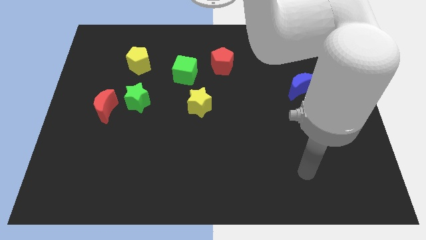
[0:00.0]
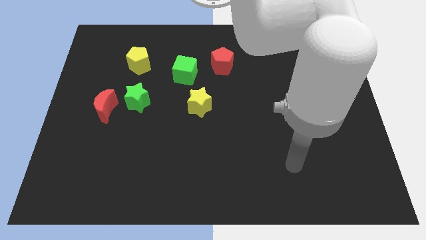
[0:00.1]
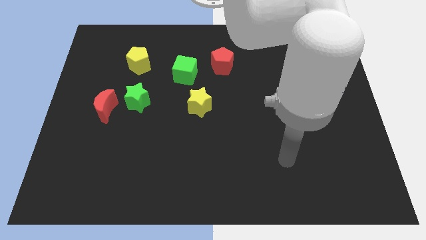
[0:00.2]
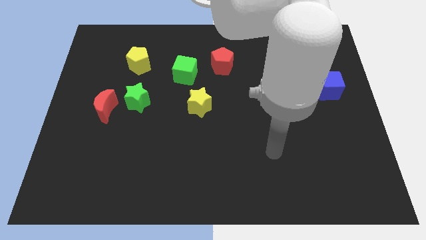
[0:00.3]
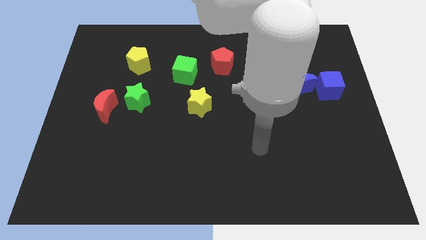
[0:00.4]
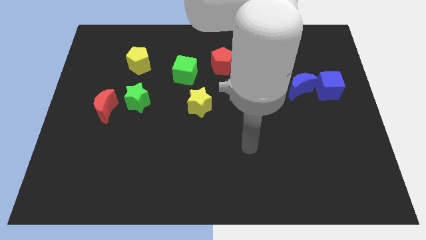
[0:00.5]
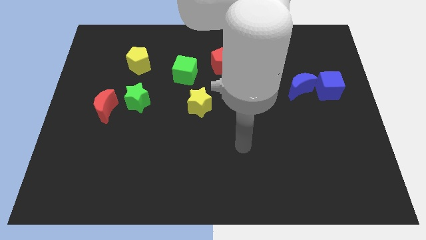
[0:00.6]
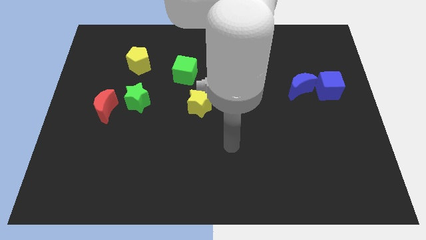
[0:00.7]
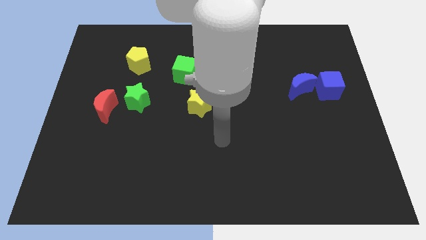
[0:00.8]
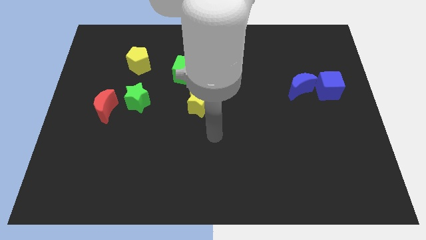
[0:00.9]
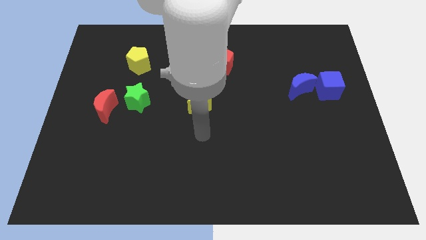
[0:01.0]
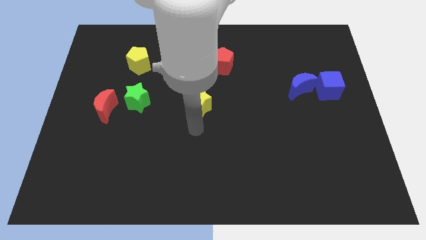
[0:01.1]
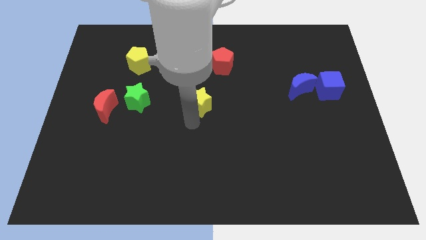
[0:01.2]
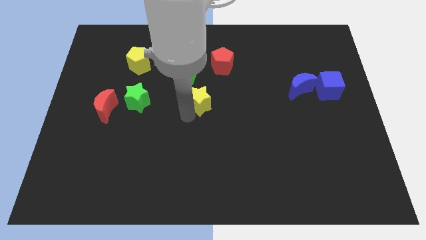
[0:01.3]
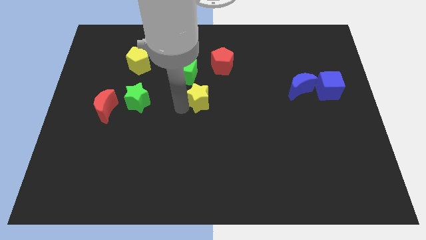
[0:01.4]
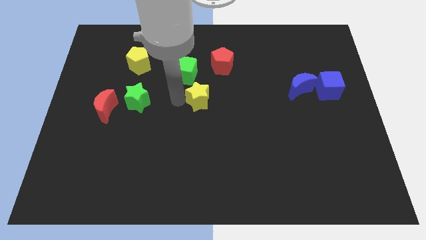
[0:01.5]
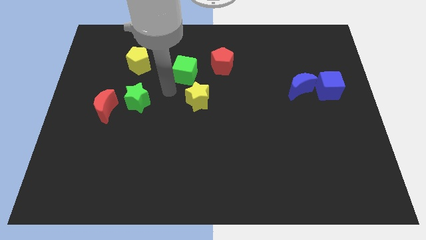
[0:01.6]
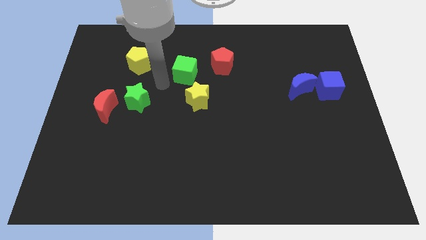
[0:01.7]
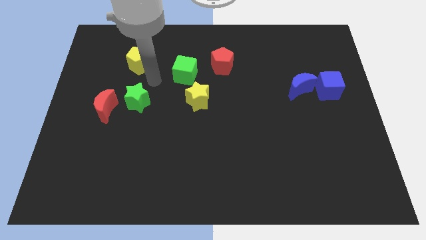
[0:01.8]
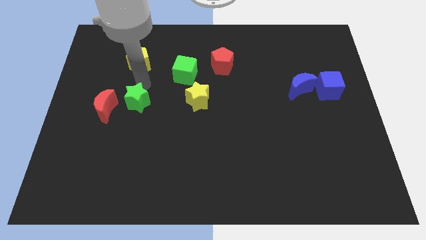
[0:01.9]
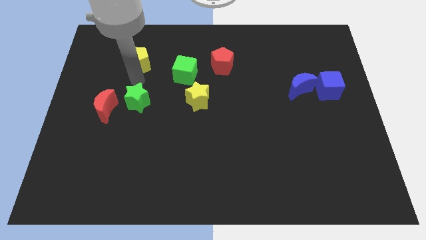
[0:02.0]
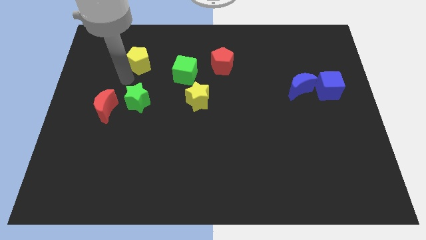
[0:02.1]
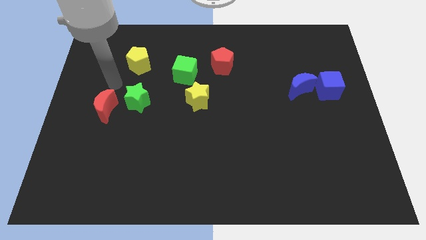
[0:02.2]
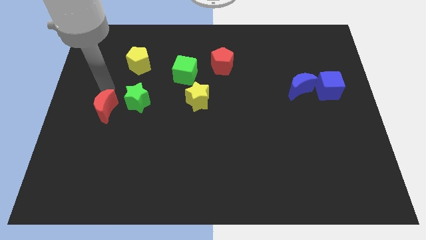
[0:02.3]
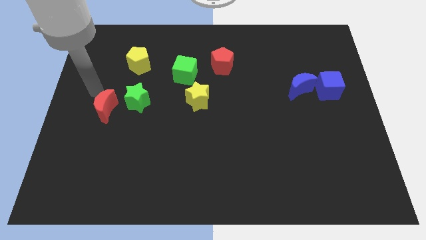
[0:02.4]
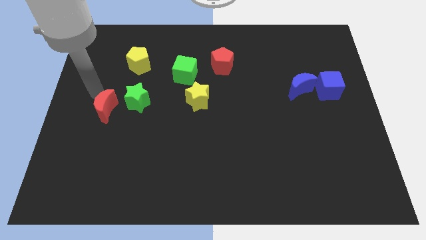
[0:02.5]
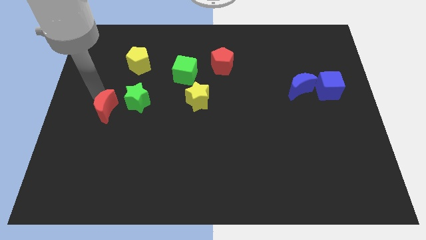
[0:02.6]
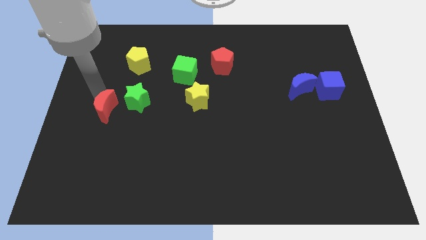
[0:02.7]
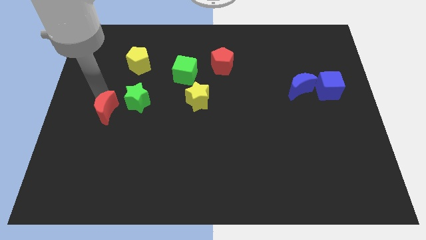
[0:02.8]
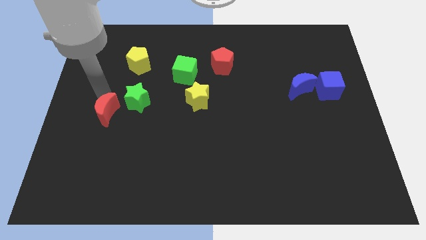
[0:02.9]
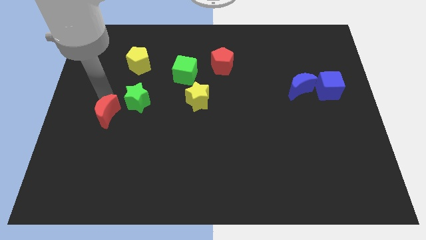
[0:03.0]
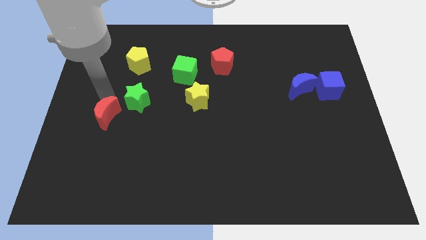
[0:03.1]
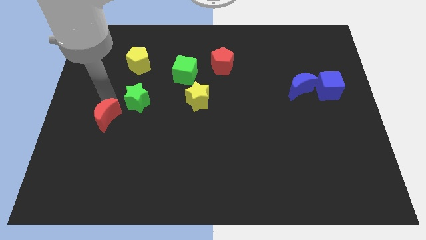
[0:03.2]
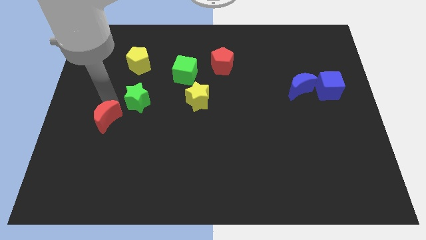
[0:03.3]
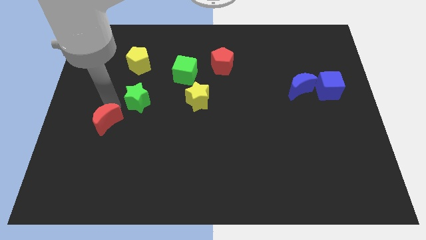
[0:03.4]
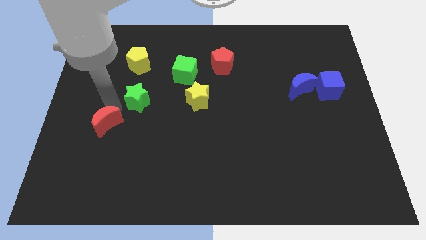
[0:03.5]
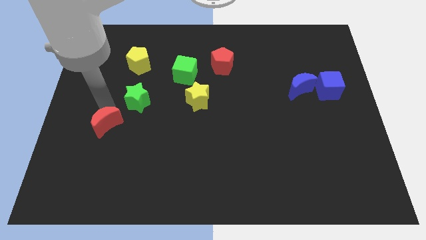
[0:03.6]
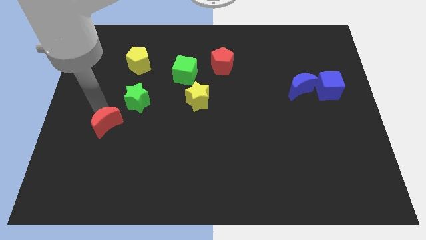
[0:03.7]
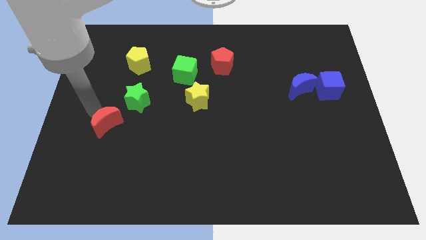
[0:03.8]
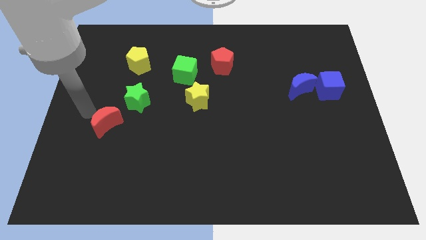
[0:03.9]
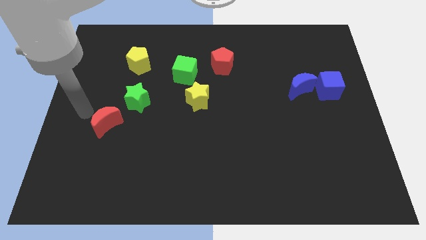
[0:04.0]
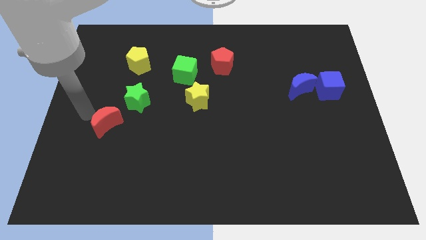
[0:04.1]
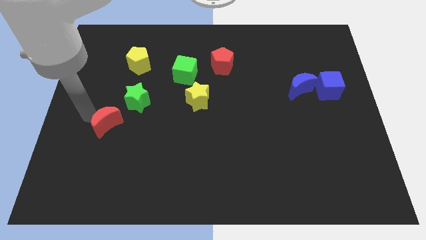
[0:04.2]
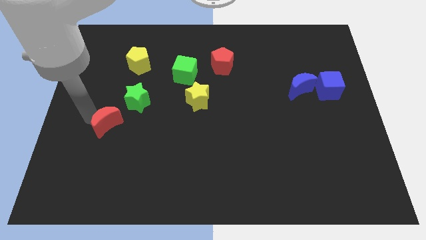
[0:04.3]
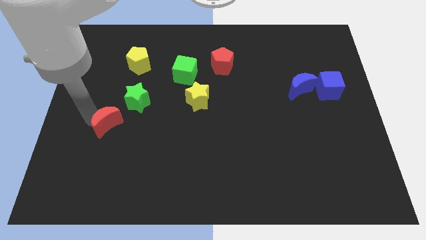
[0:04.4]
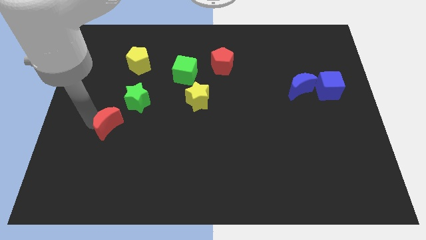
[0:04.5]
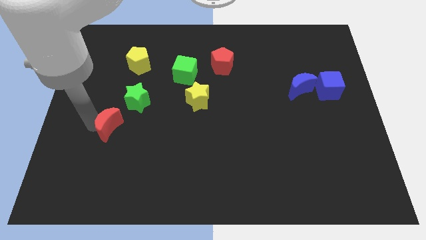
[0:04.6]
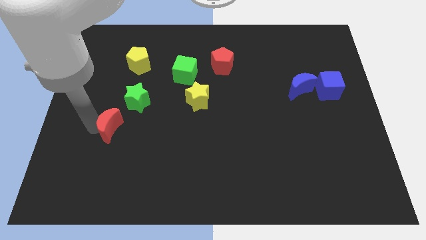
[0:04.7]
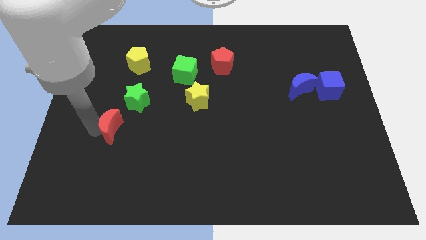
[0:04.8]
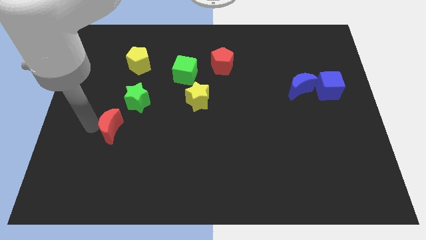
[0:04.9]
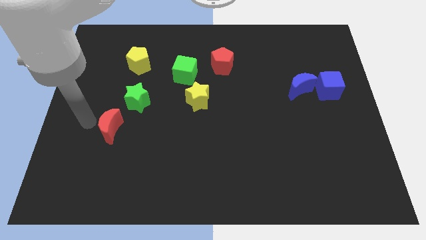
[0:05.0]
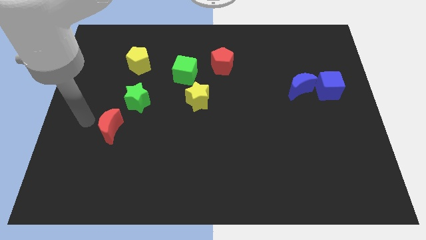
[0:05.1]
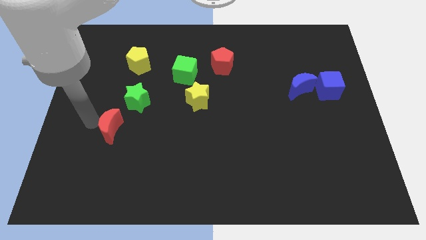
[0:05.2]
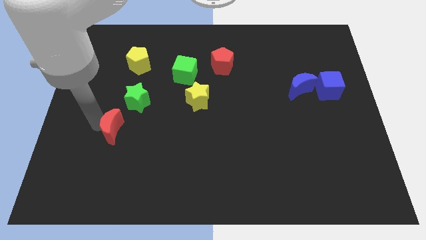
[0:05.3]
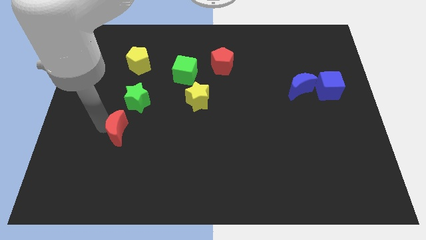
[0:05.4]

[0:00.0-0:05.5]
slightly push the red moon down and right

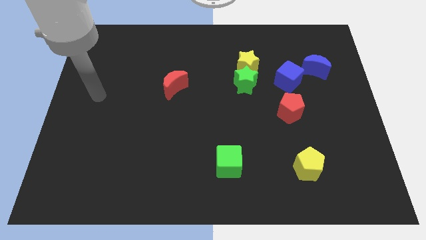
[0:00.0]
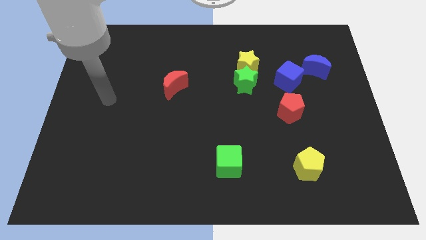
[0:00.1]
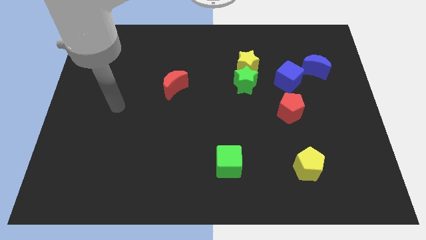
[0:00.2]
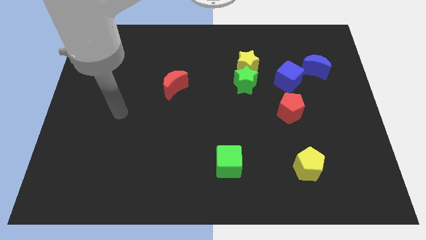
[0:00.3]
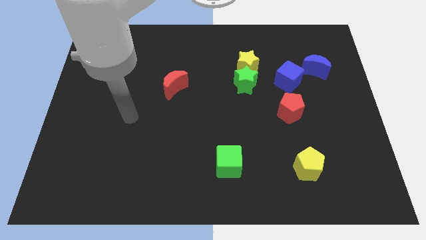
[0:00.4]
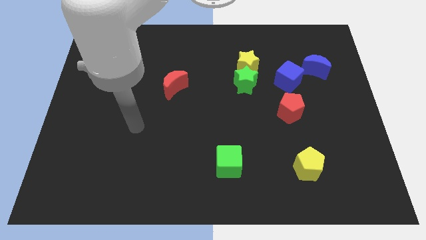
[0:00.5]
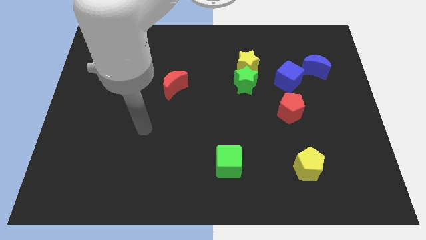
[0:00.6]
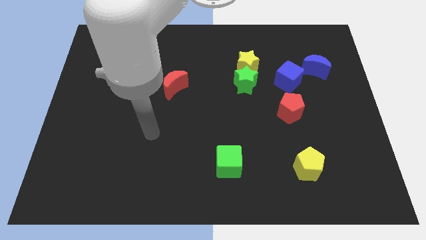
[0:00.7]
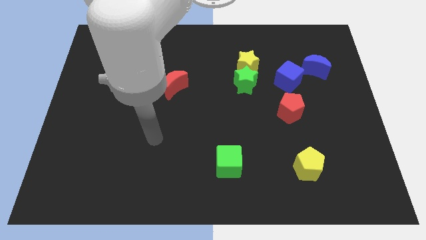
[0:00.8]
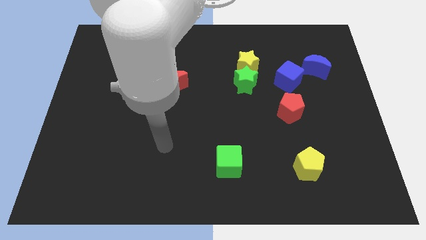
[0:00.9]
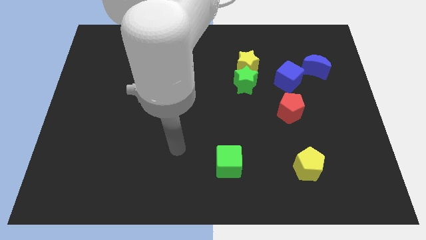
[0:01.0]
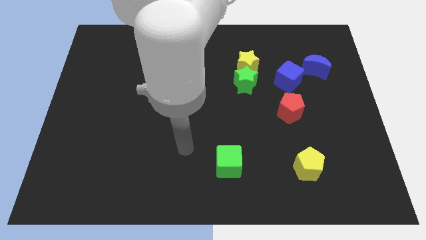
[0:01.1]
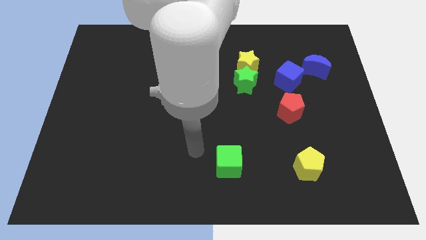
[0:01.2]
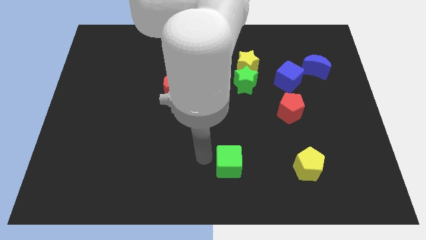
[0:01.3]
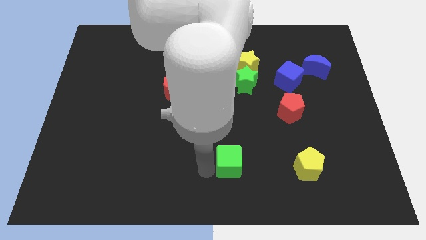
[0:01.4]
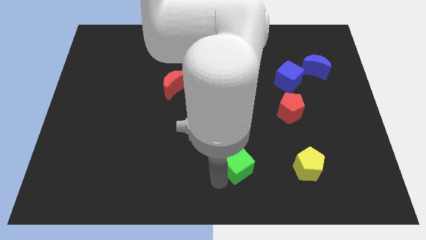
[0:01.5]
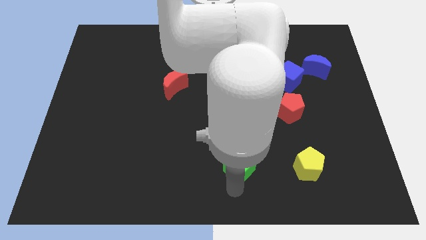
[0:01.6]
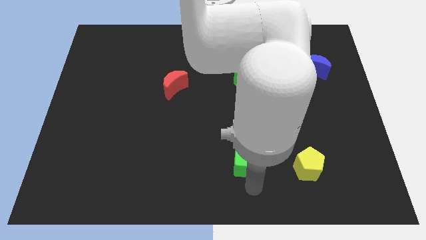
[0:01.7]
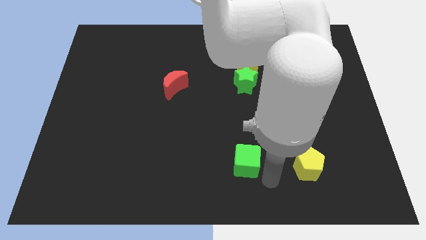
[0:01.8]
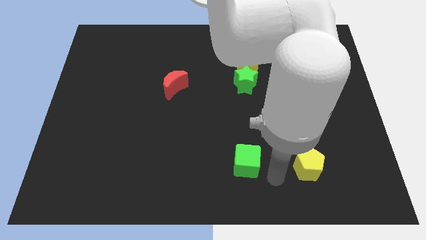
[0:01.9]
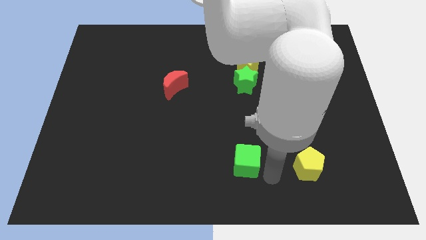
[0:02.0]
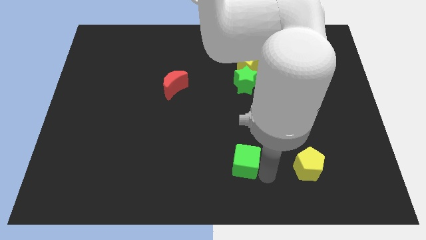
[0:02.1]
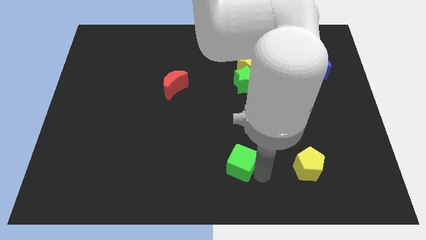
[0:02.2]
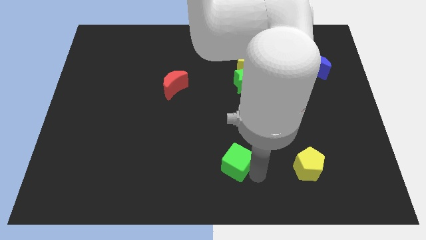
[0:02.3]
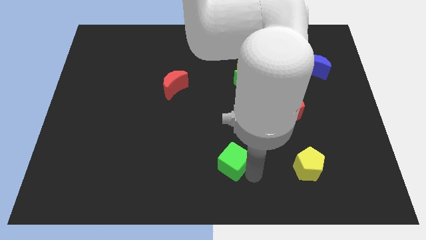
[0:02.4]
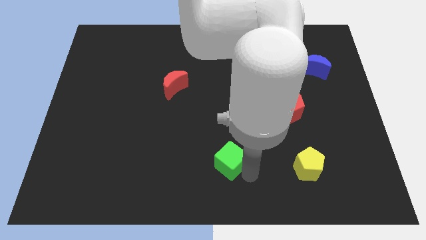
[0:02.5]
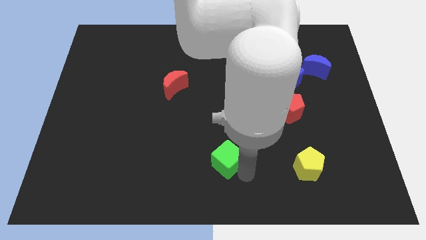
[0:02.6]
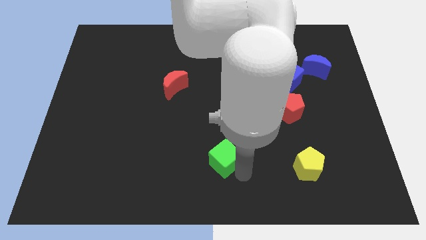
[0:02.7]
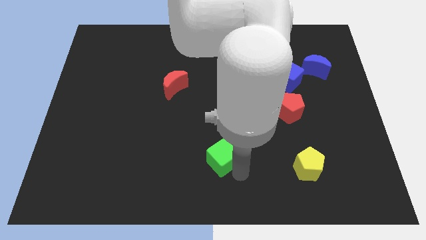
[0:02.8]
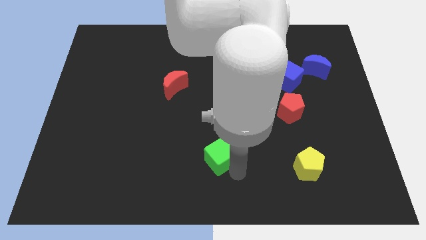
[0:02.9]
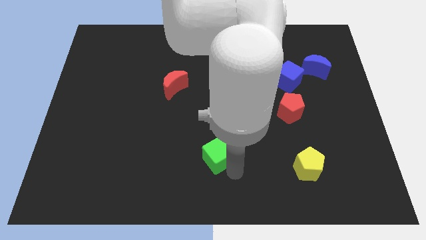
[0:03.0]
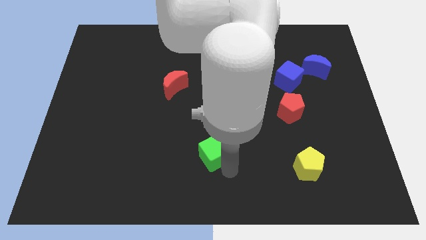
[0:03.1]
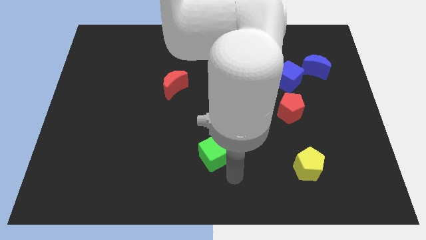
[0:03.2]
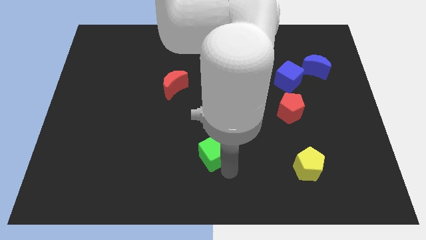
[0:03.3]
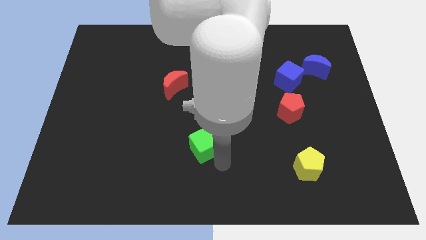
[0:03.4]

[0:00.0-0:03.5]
slightly slide the green cube diagonally up and left
